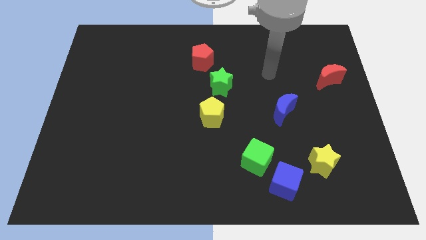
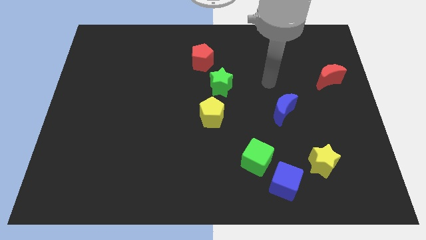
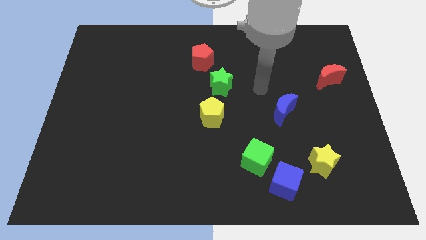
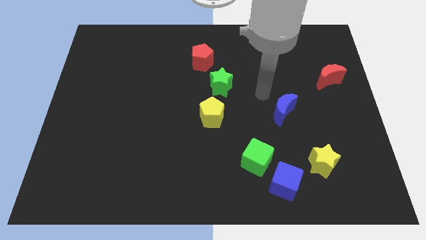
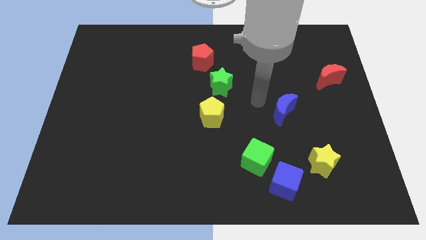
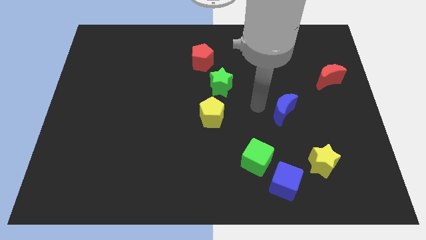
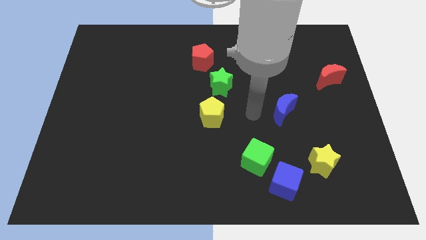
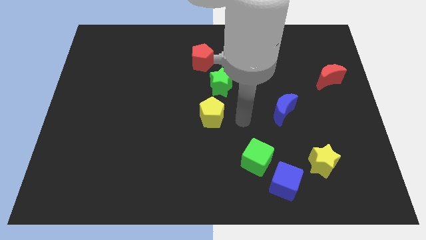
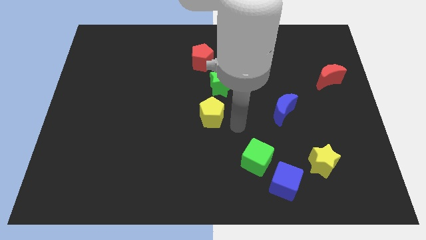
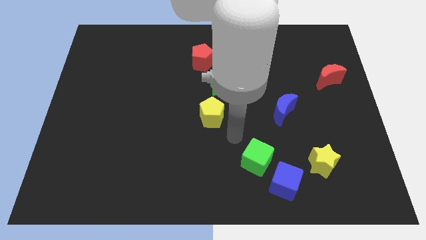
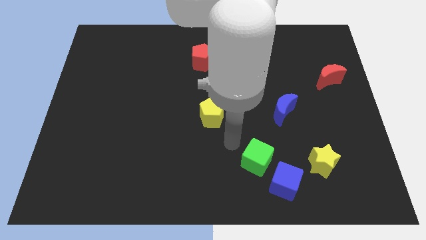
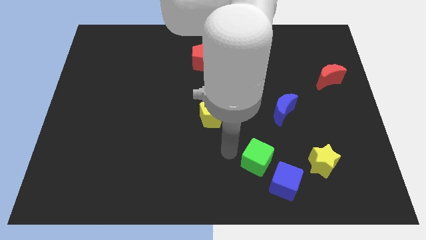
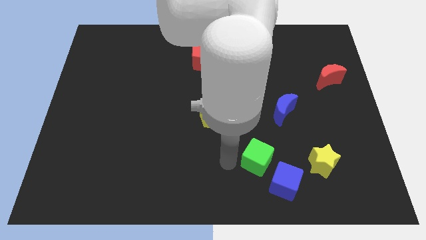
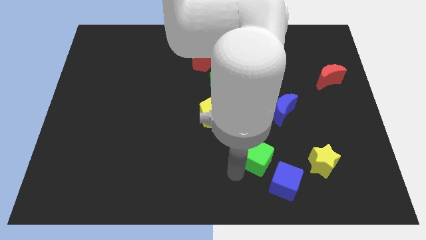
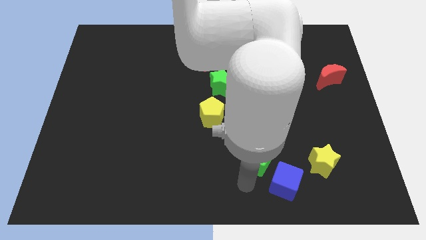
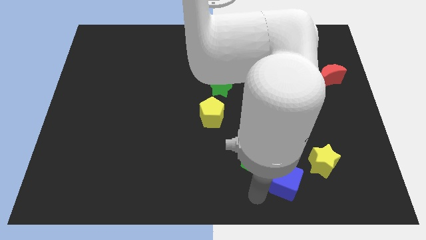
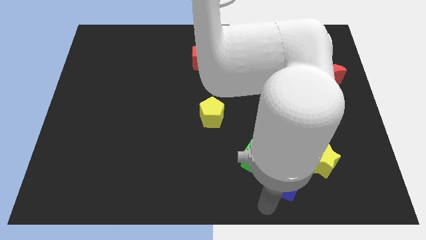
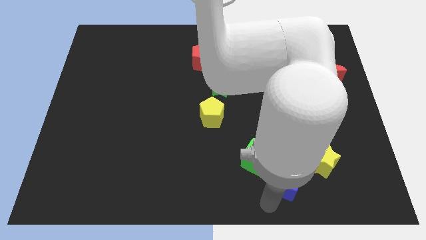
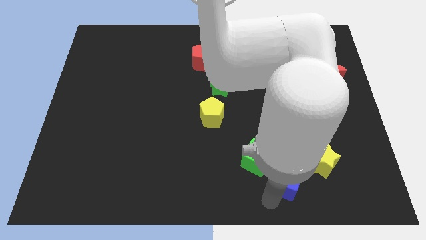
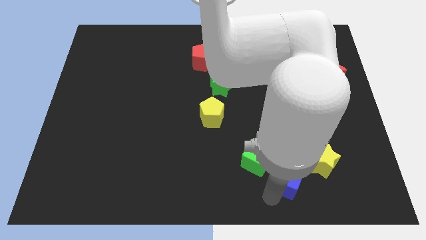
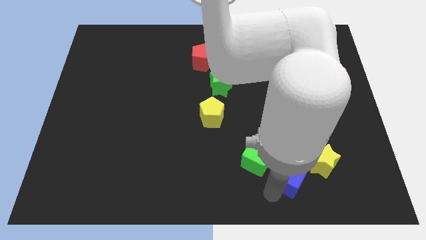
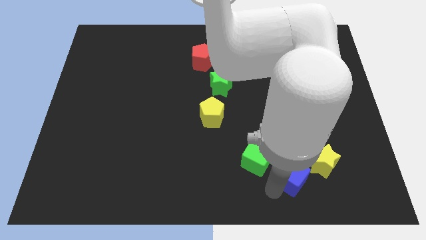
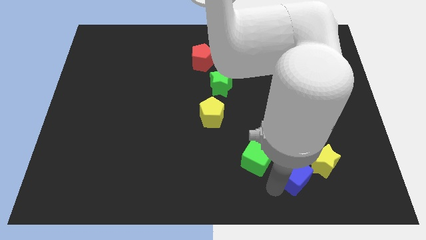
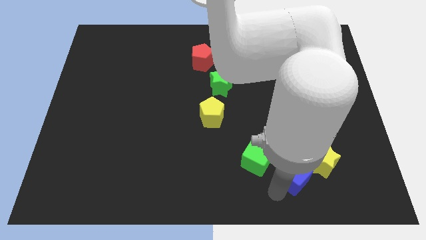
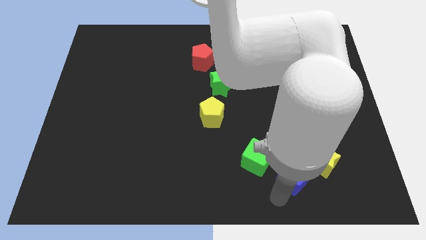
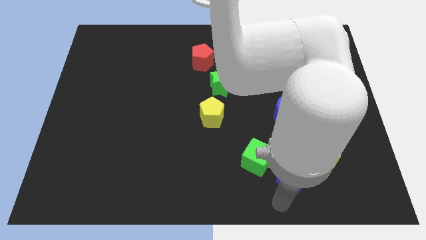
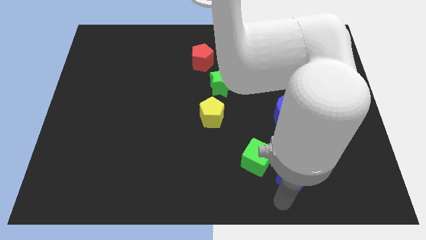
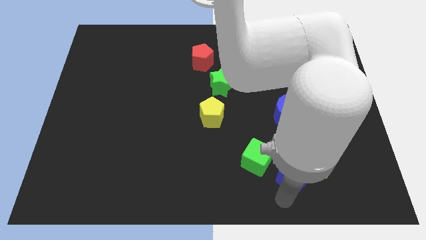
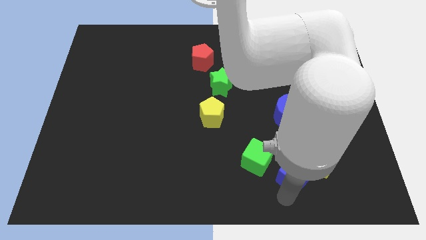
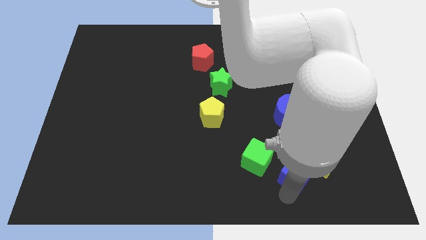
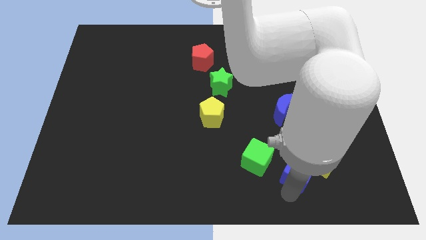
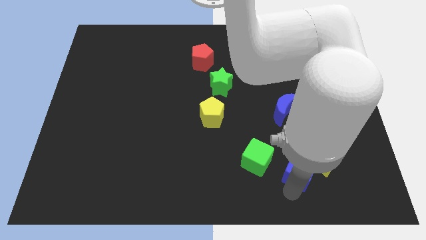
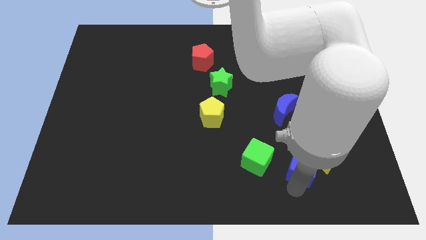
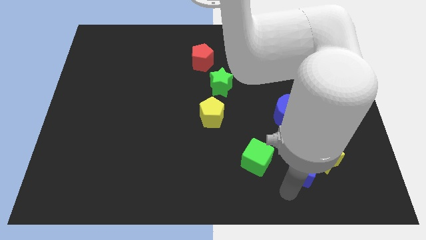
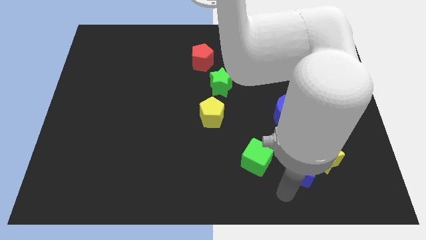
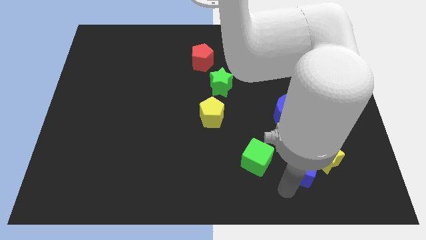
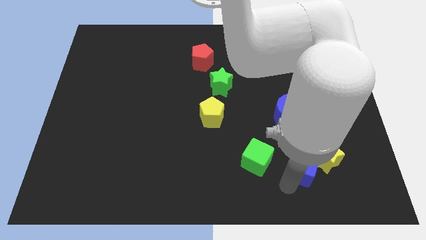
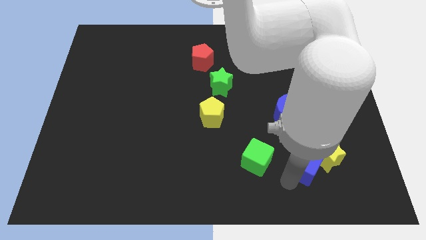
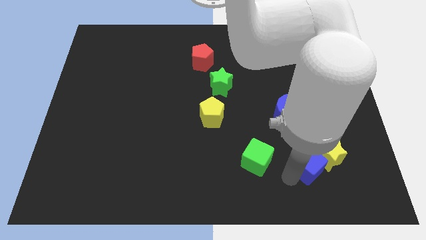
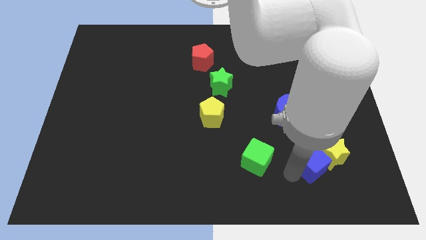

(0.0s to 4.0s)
push the blue cube up and to the right diagonally somewhat

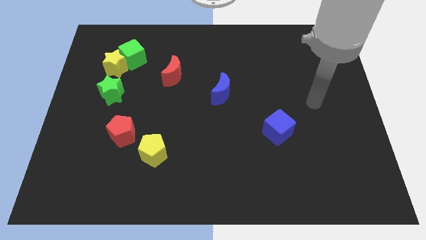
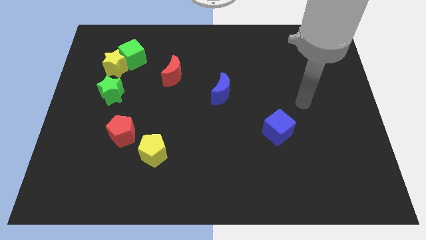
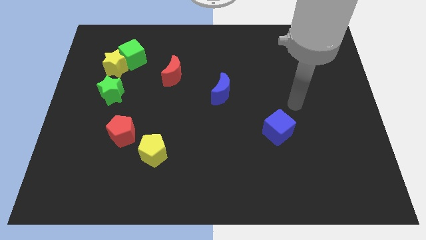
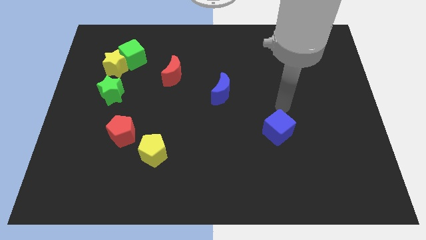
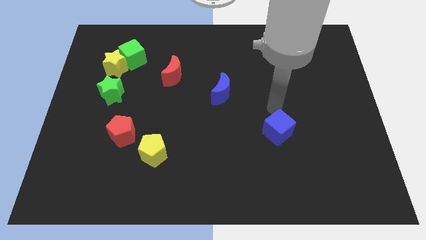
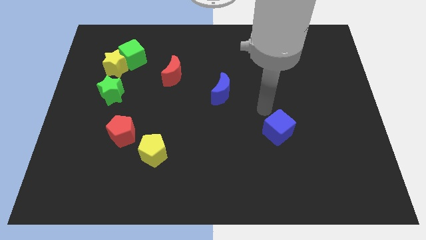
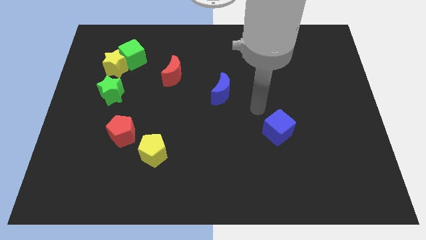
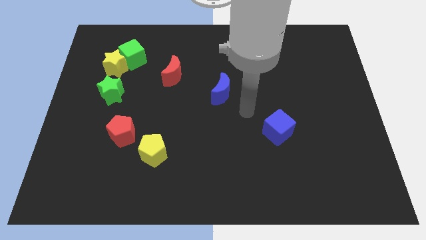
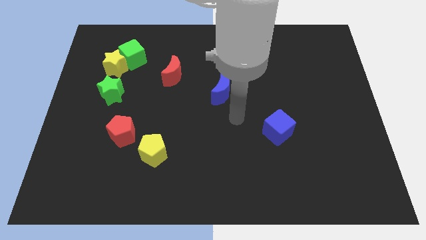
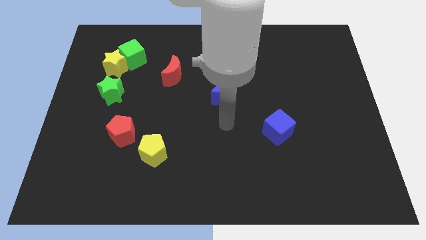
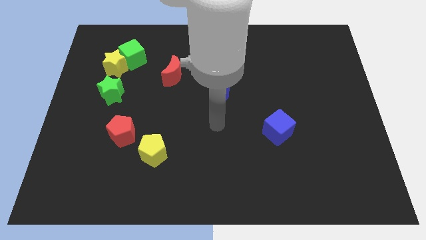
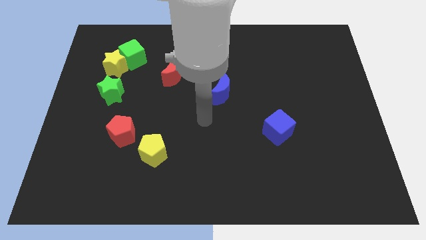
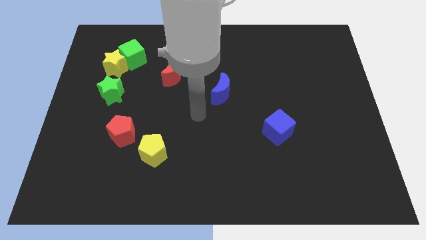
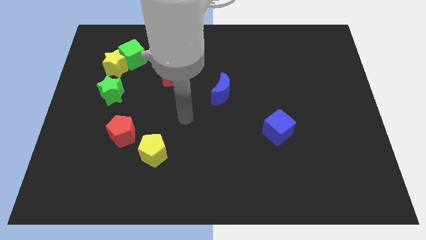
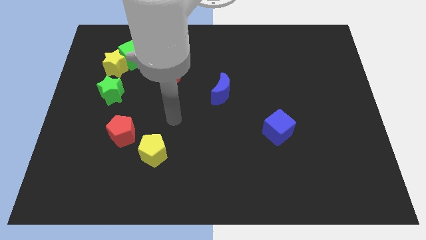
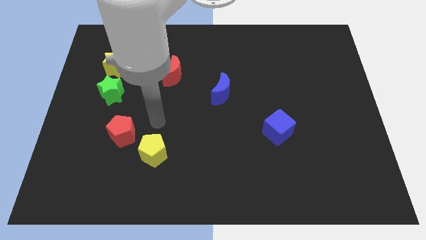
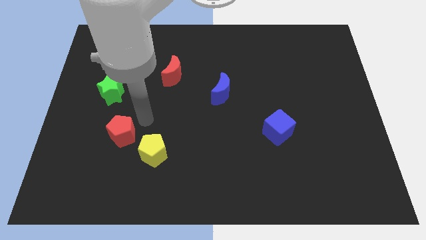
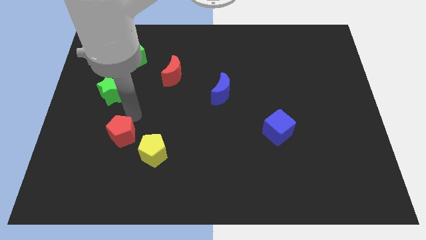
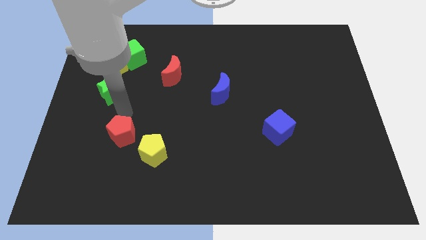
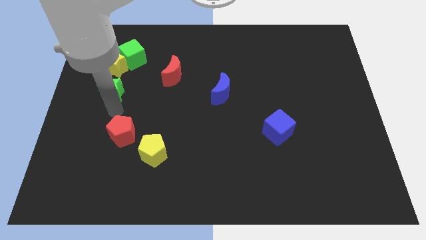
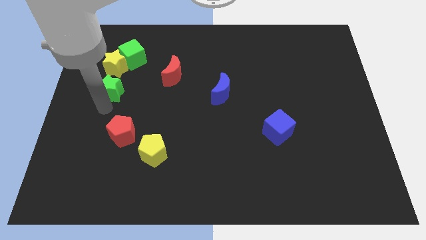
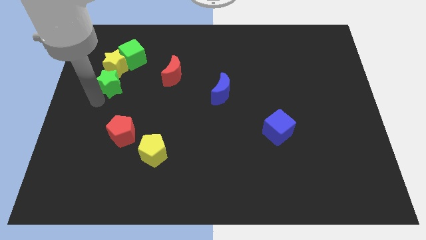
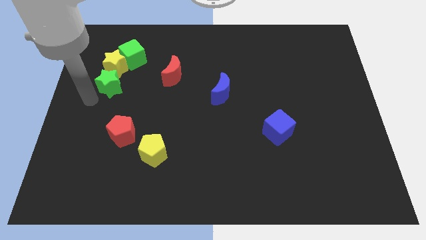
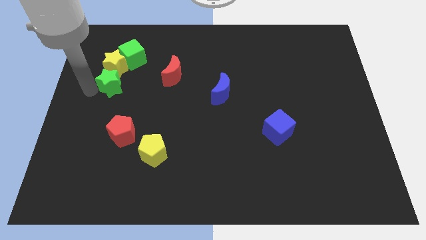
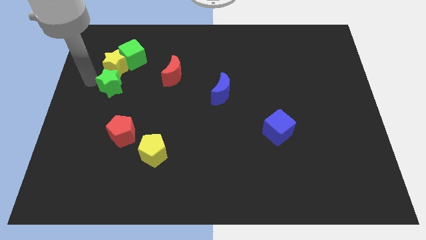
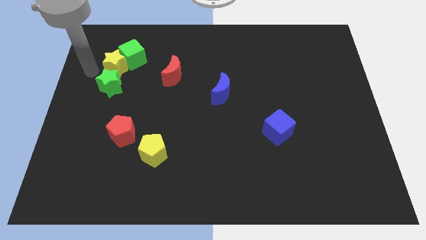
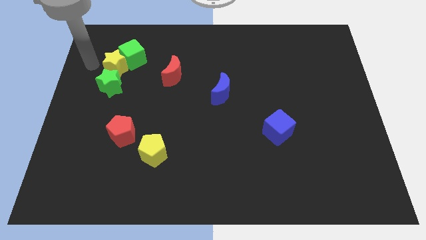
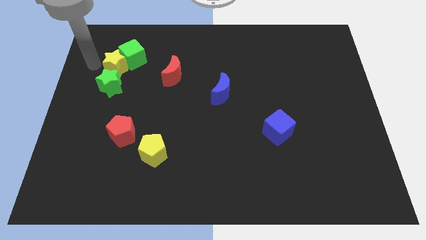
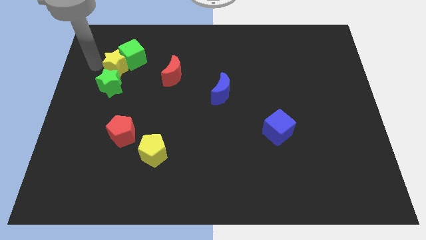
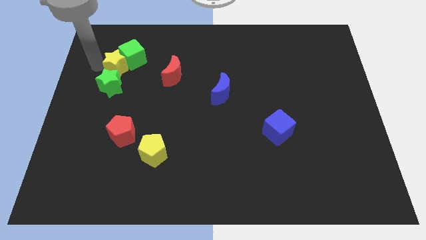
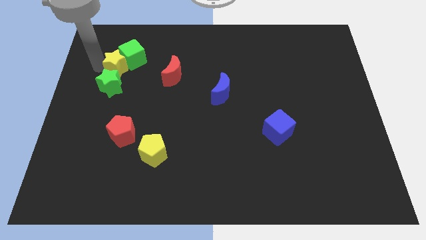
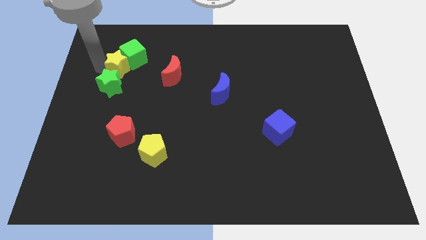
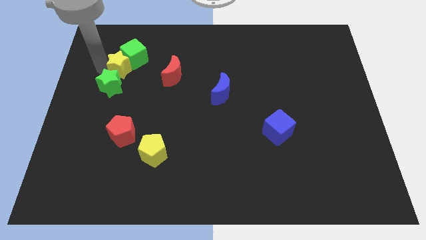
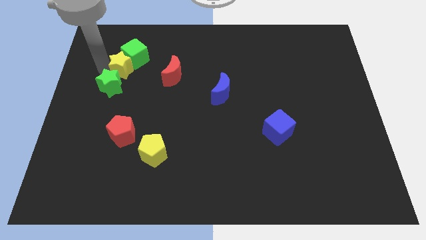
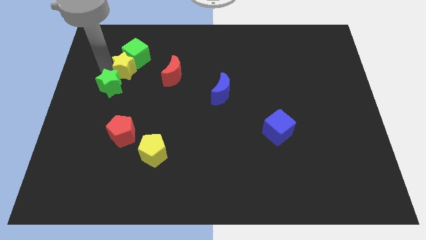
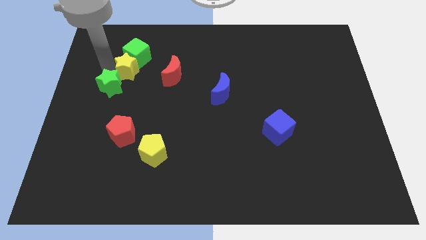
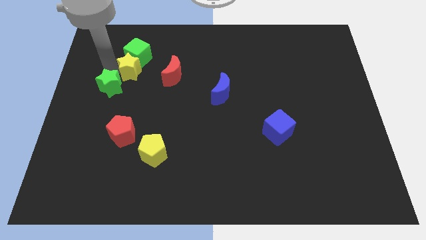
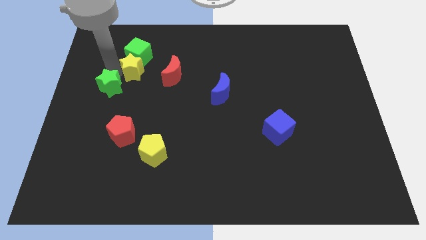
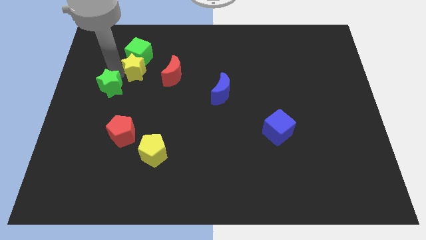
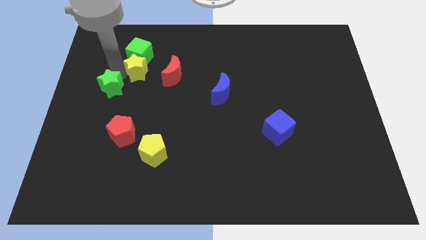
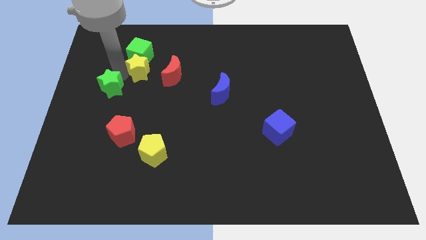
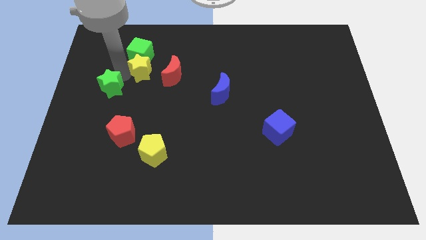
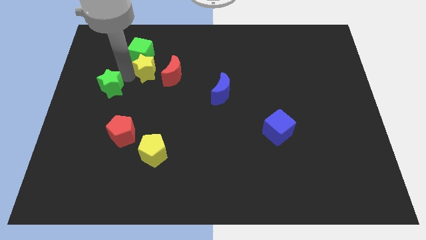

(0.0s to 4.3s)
move the yellow star right somewhat

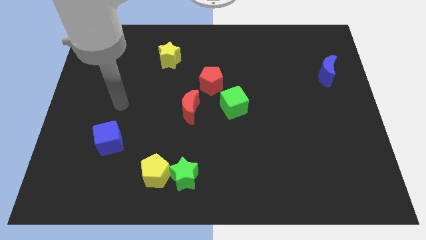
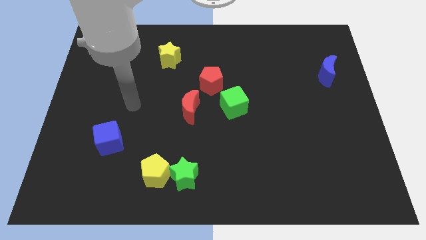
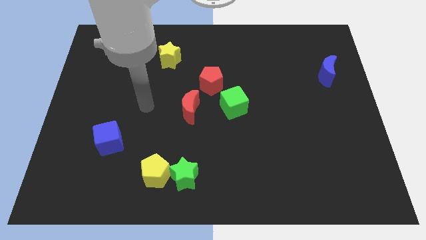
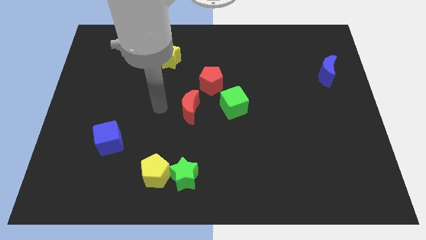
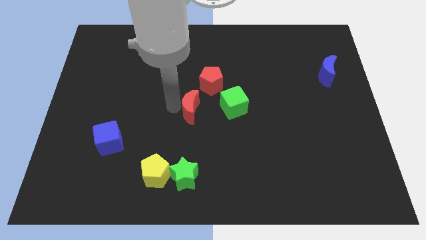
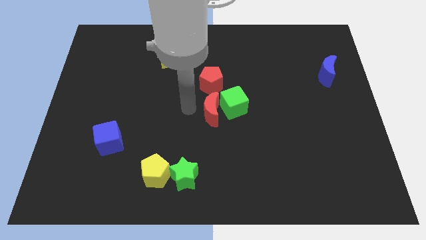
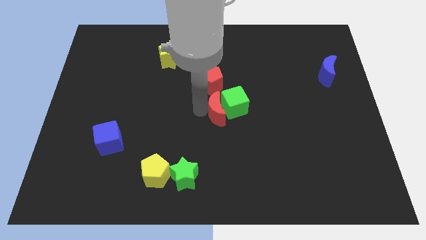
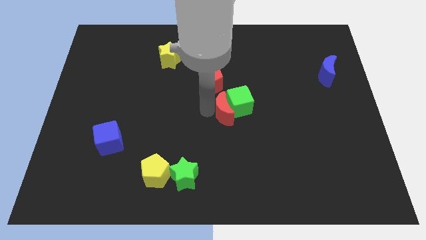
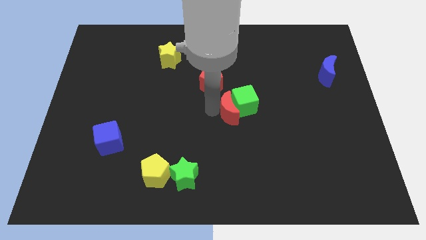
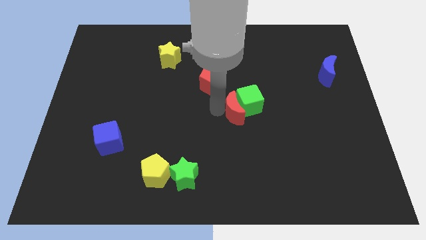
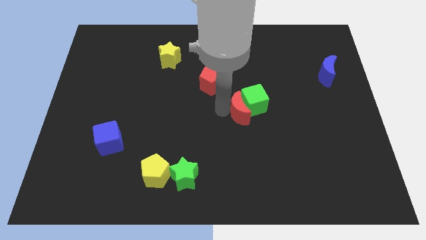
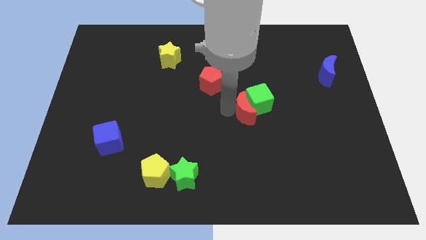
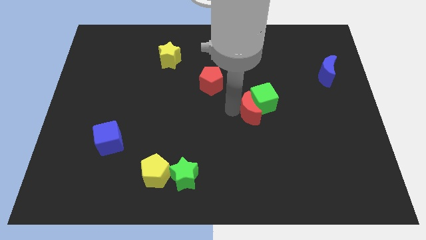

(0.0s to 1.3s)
slide the green cube right slightly
